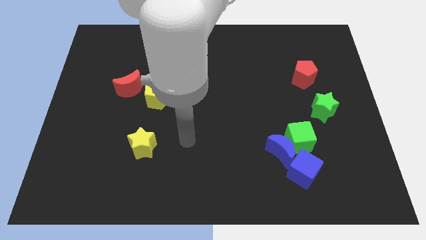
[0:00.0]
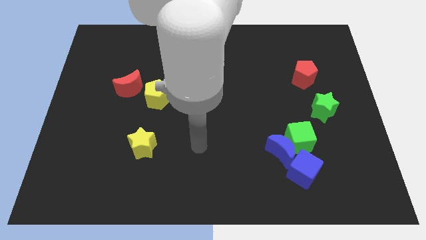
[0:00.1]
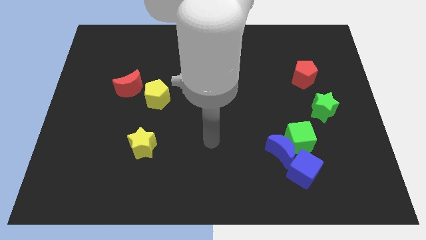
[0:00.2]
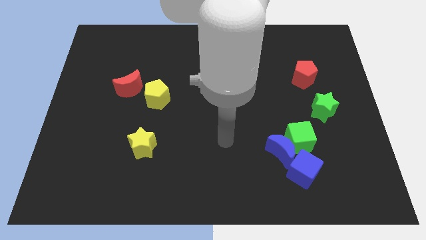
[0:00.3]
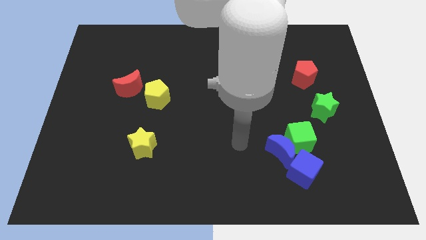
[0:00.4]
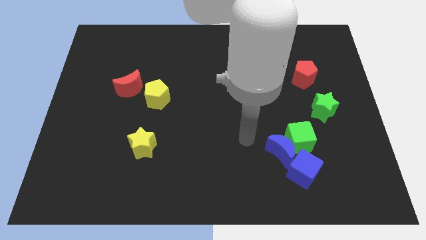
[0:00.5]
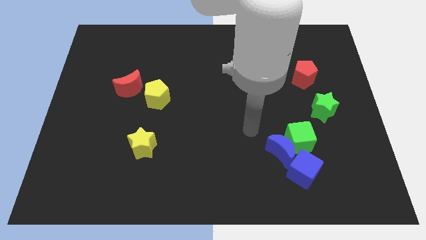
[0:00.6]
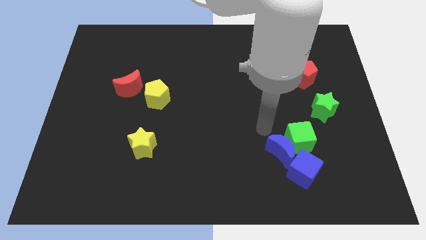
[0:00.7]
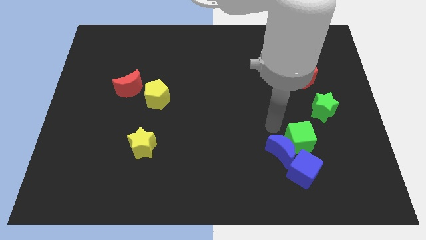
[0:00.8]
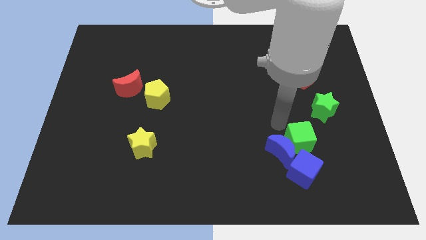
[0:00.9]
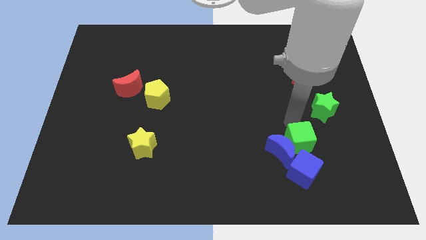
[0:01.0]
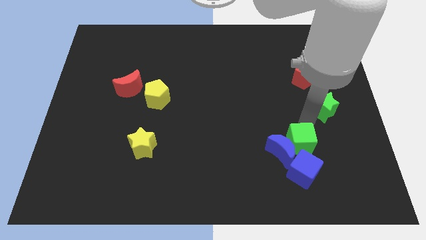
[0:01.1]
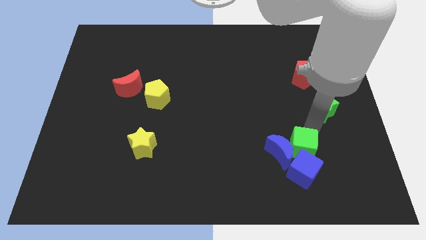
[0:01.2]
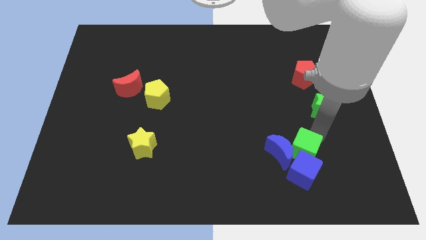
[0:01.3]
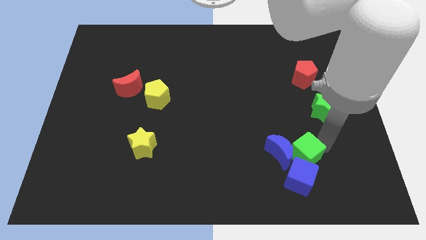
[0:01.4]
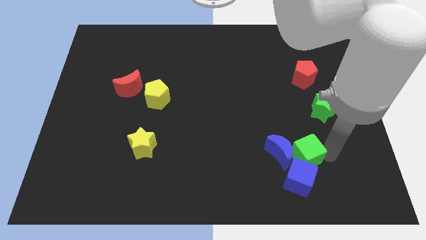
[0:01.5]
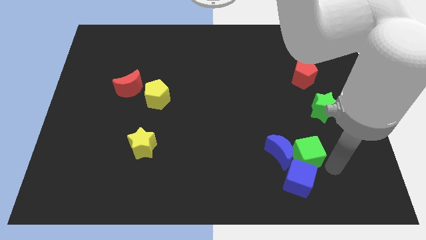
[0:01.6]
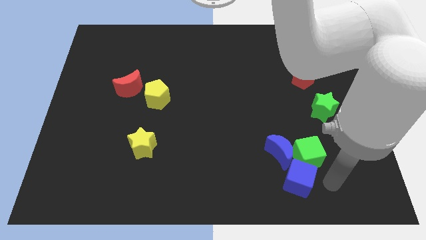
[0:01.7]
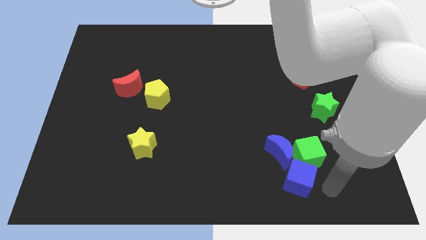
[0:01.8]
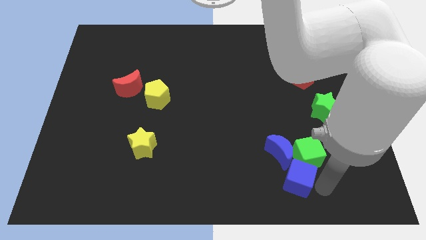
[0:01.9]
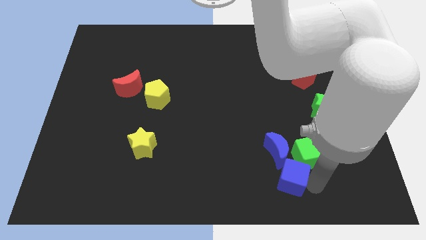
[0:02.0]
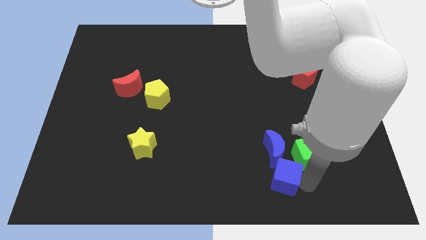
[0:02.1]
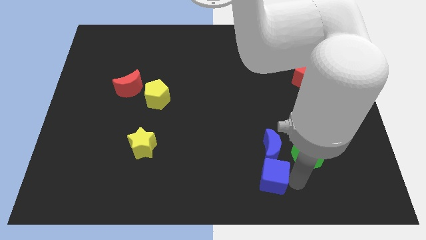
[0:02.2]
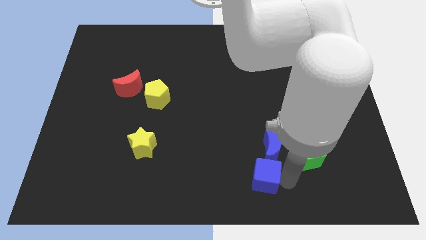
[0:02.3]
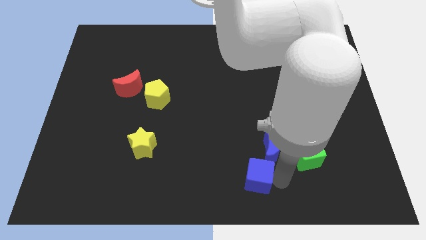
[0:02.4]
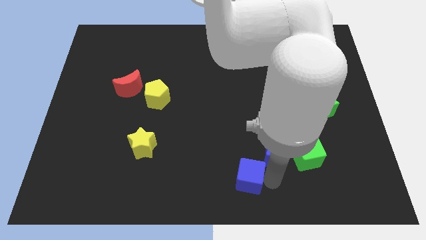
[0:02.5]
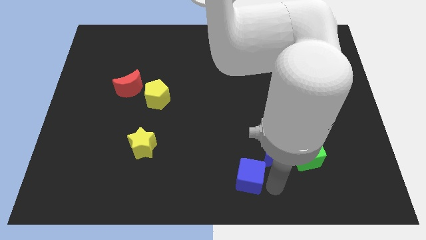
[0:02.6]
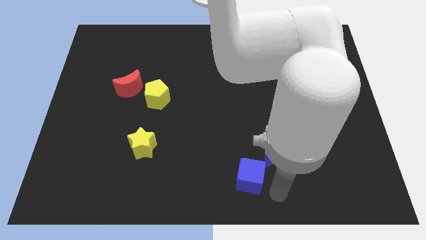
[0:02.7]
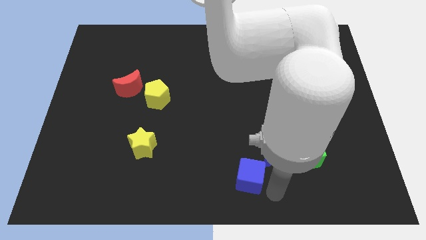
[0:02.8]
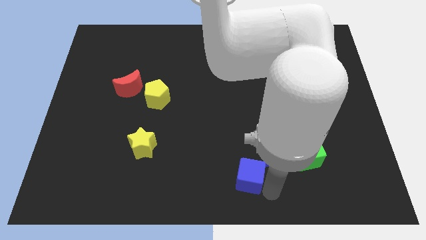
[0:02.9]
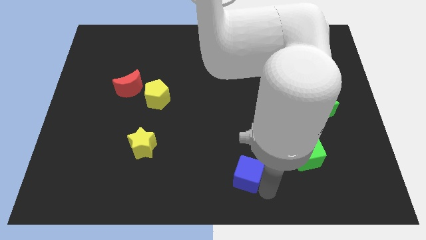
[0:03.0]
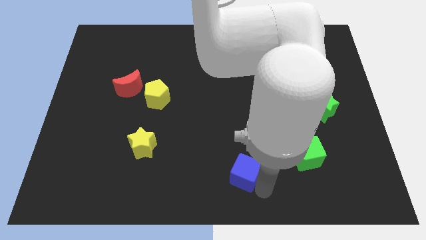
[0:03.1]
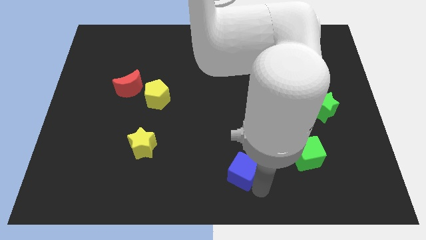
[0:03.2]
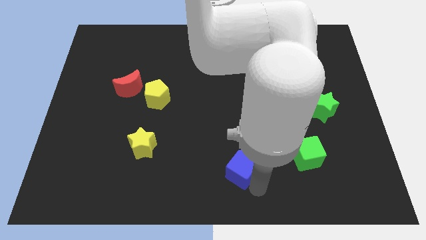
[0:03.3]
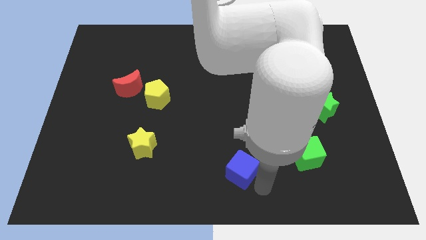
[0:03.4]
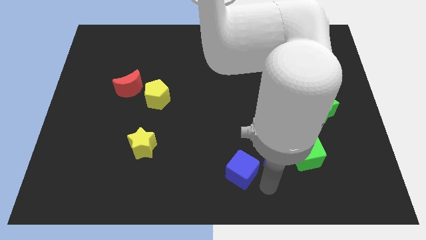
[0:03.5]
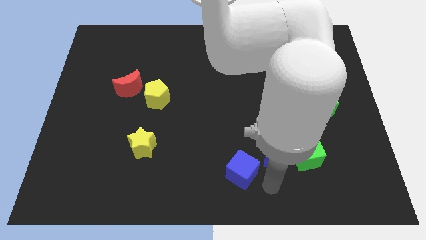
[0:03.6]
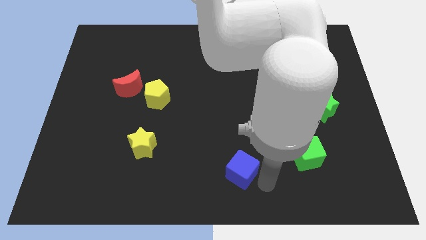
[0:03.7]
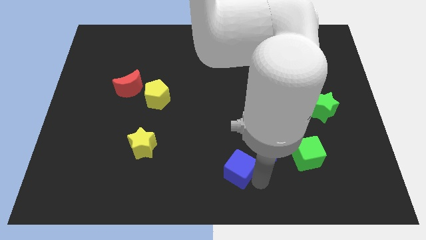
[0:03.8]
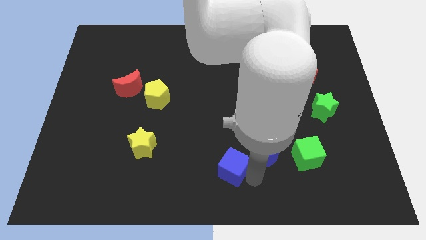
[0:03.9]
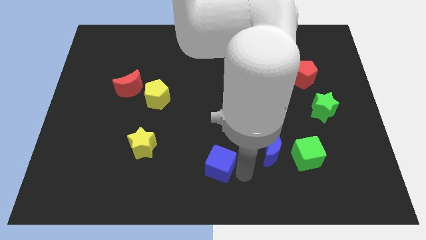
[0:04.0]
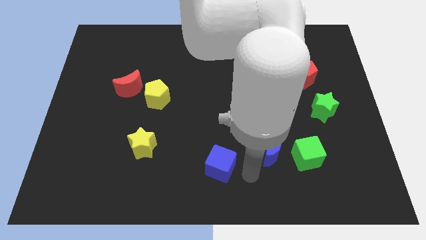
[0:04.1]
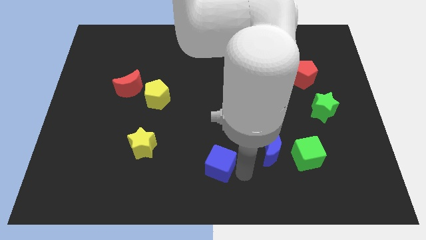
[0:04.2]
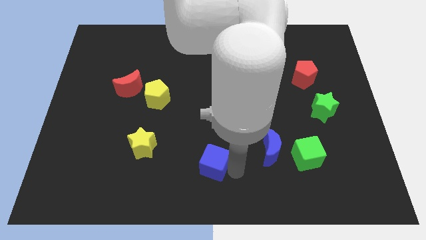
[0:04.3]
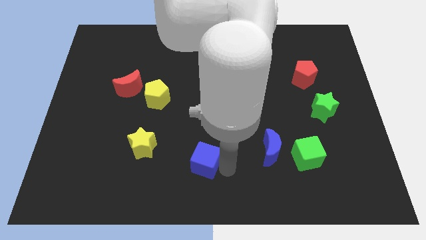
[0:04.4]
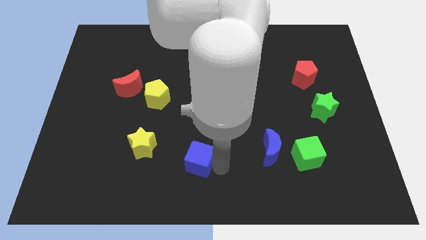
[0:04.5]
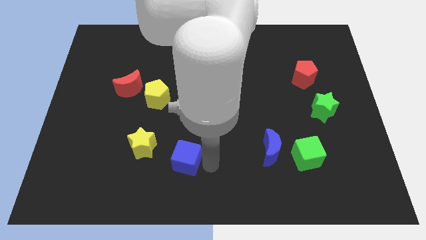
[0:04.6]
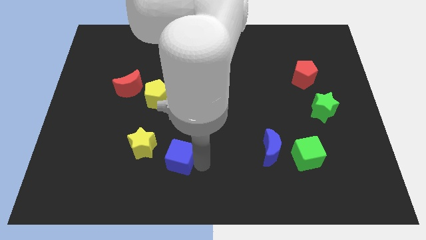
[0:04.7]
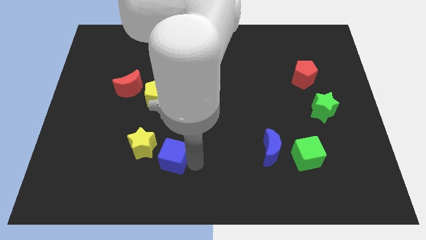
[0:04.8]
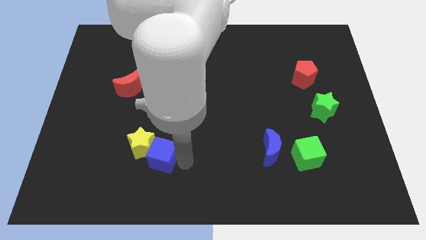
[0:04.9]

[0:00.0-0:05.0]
slide the blue cube towards the yellow star

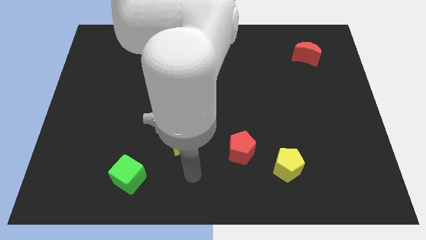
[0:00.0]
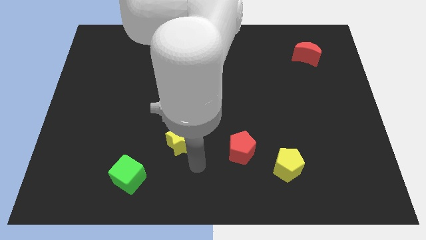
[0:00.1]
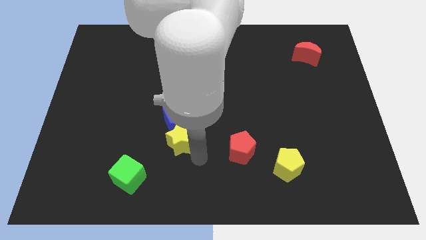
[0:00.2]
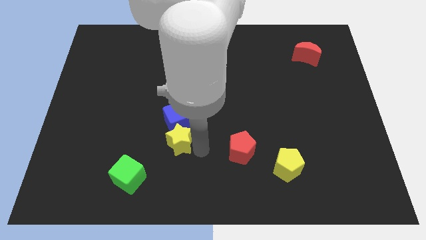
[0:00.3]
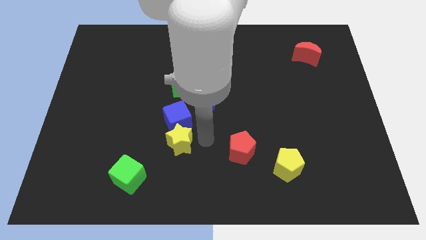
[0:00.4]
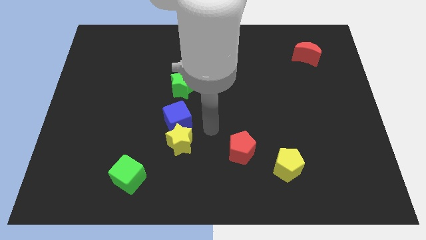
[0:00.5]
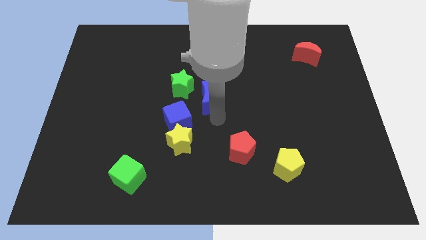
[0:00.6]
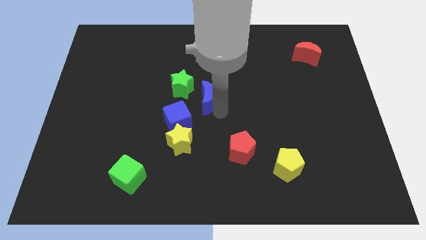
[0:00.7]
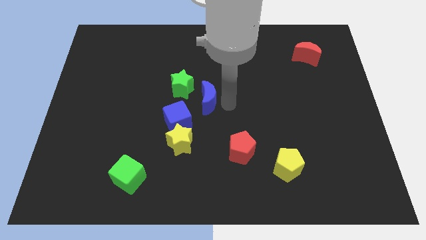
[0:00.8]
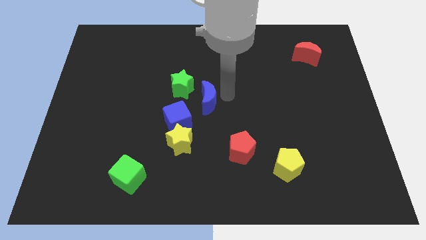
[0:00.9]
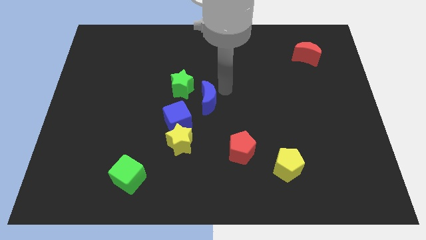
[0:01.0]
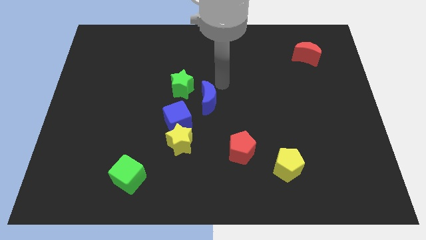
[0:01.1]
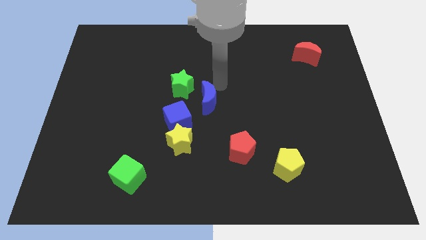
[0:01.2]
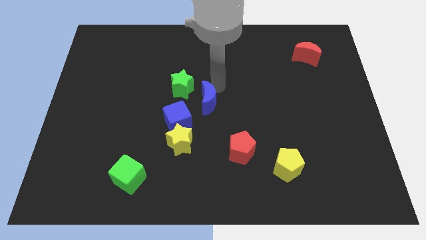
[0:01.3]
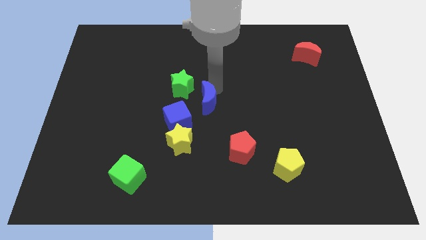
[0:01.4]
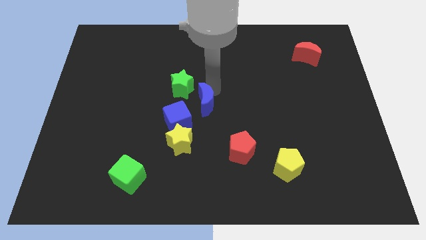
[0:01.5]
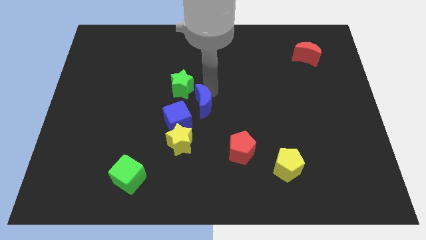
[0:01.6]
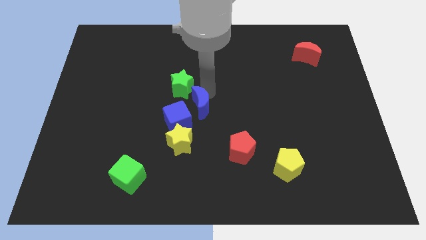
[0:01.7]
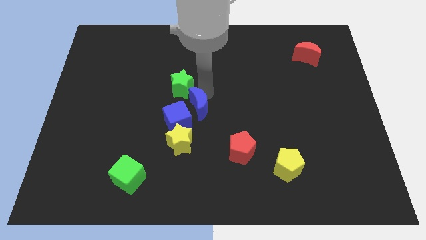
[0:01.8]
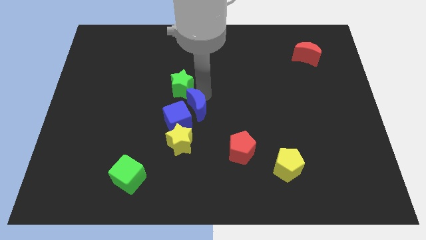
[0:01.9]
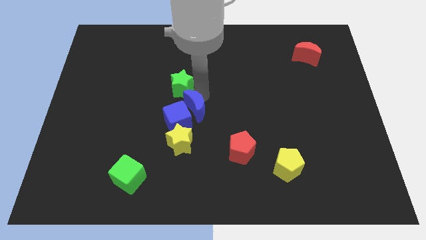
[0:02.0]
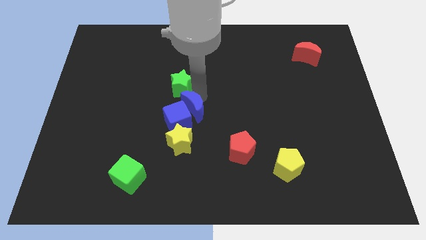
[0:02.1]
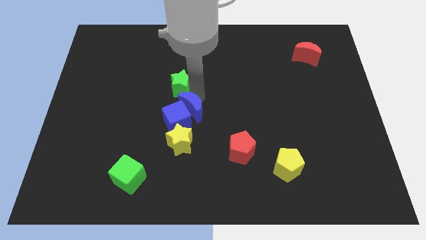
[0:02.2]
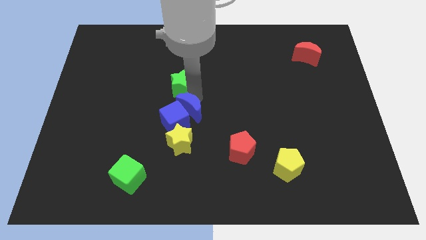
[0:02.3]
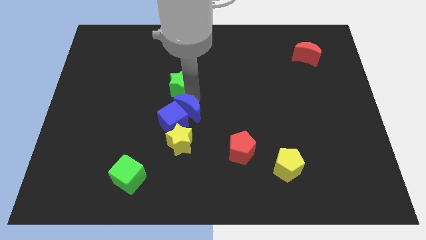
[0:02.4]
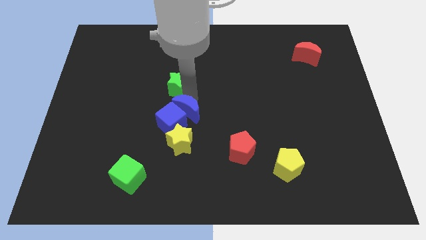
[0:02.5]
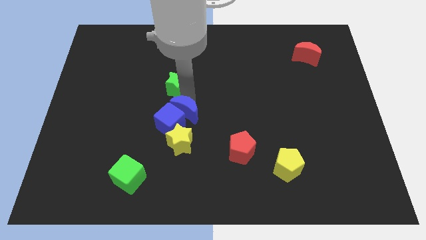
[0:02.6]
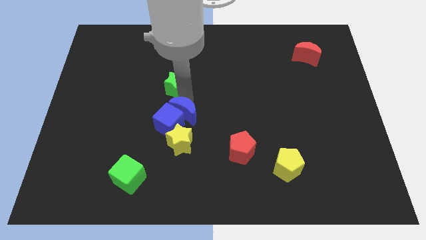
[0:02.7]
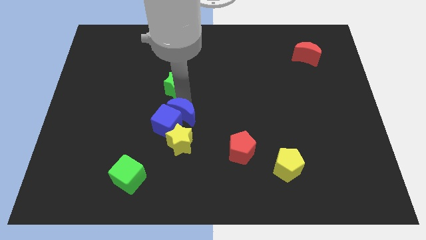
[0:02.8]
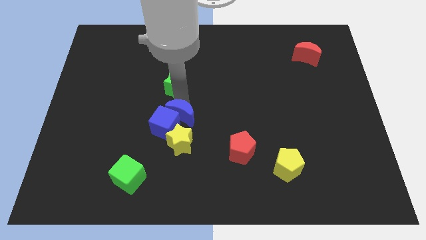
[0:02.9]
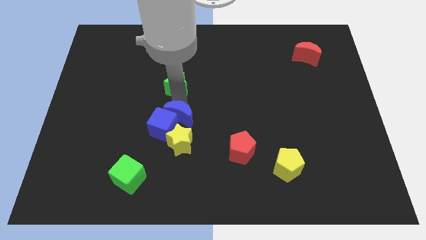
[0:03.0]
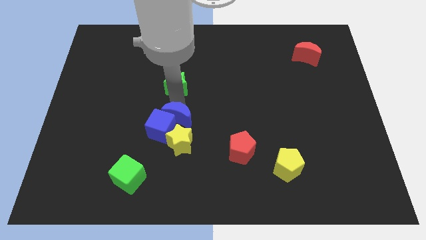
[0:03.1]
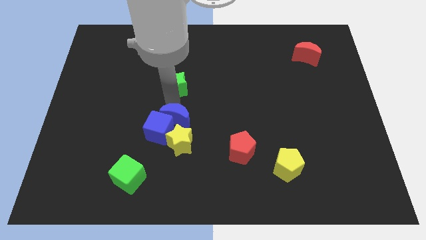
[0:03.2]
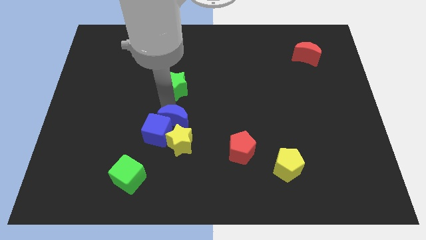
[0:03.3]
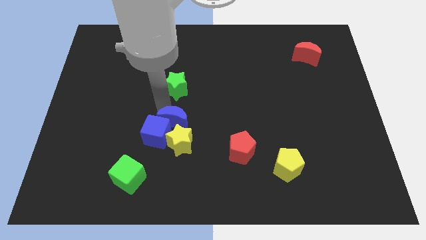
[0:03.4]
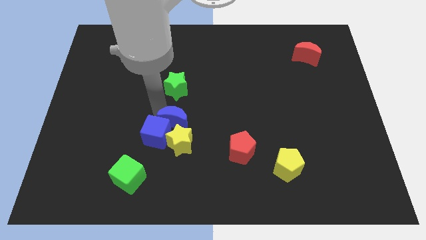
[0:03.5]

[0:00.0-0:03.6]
put the blue moon close to the yellow star
